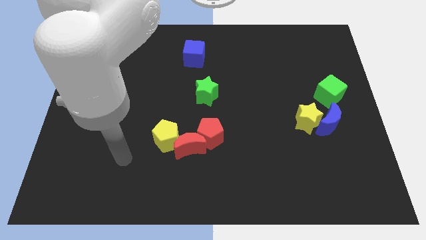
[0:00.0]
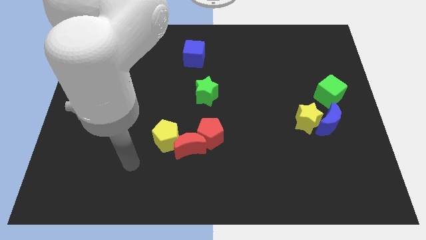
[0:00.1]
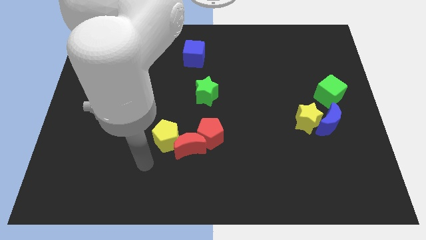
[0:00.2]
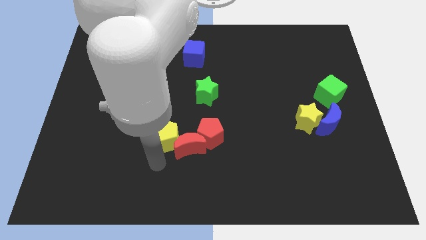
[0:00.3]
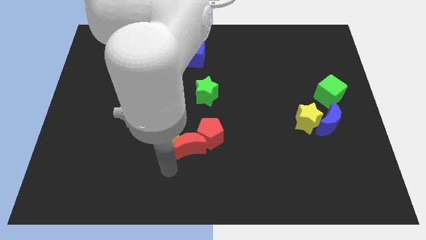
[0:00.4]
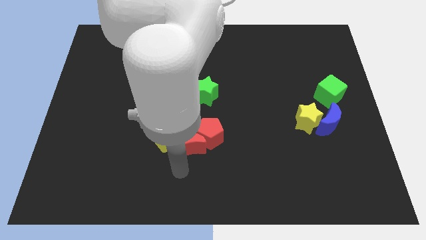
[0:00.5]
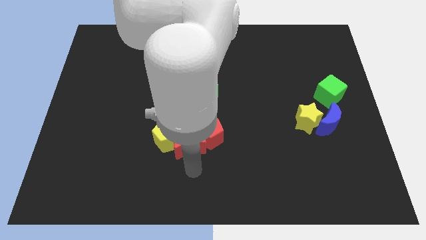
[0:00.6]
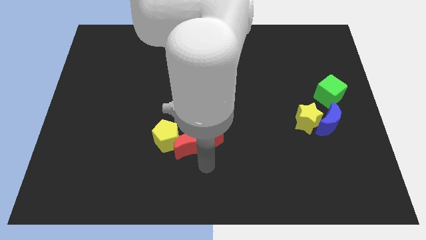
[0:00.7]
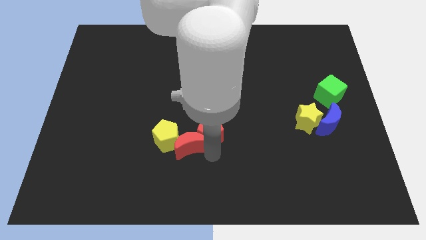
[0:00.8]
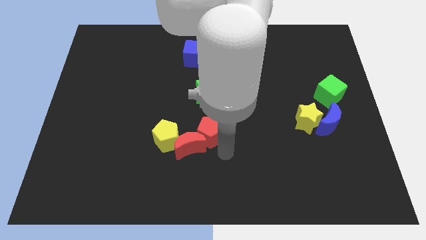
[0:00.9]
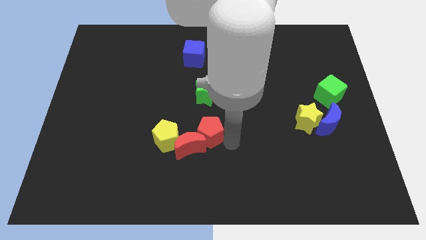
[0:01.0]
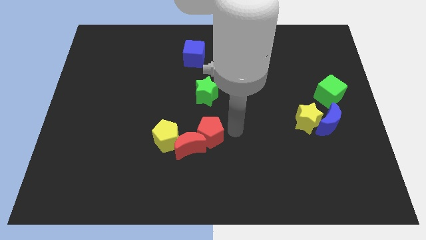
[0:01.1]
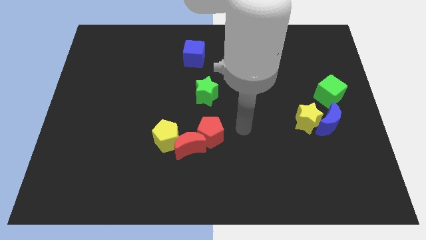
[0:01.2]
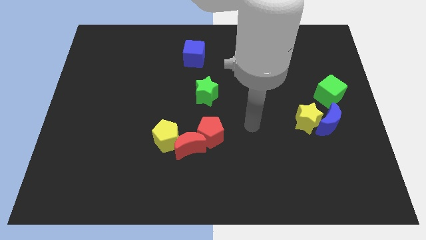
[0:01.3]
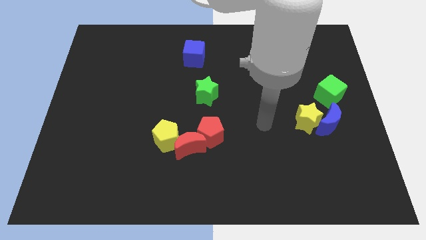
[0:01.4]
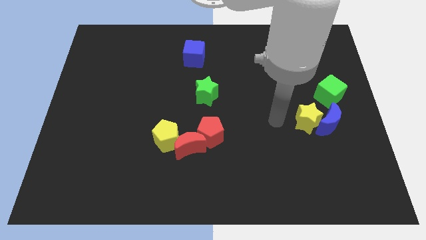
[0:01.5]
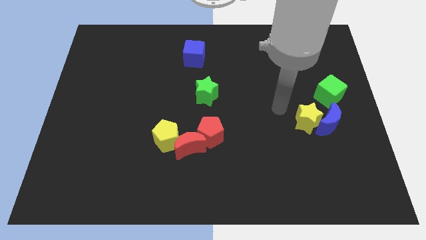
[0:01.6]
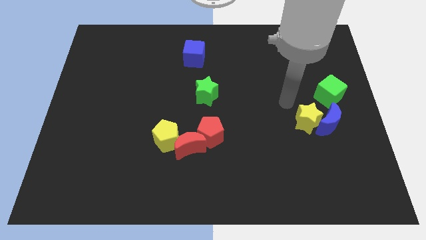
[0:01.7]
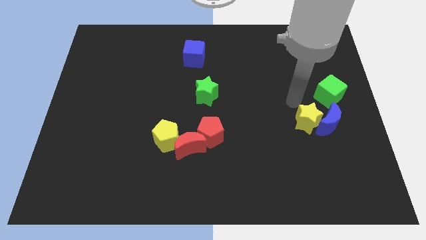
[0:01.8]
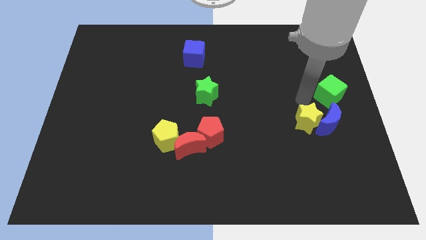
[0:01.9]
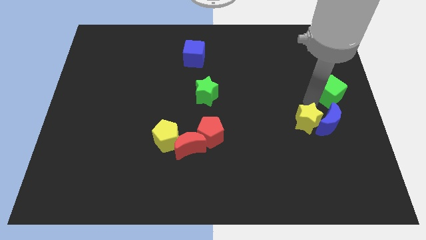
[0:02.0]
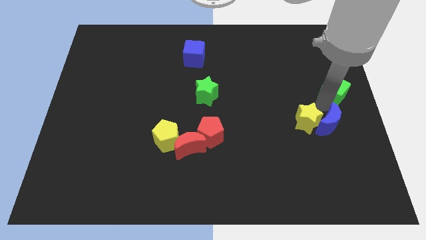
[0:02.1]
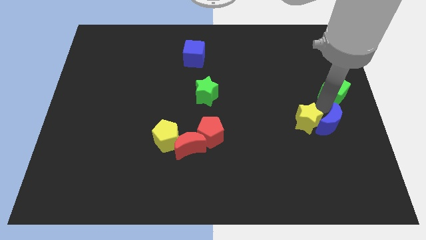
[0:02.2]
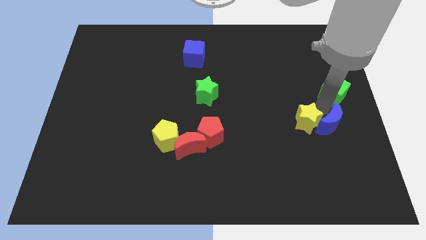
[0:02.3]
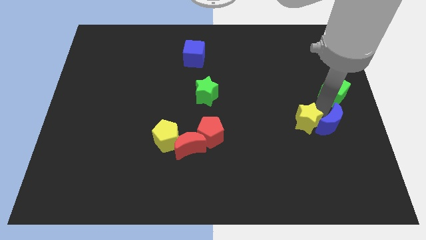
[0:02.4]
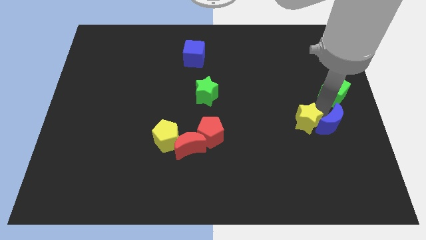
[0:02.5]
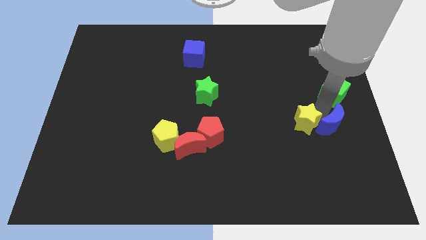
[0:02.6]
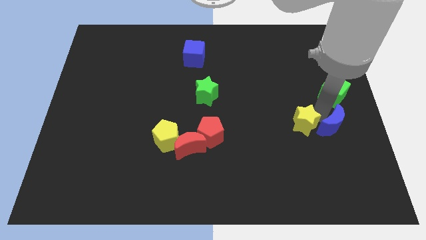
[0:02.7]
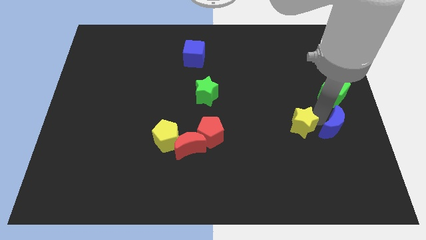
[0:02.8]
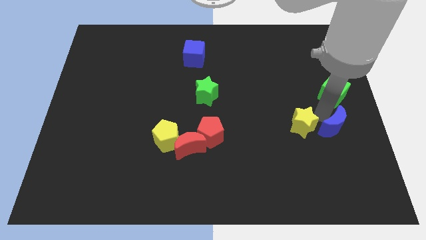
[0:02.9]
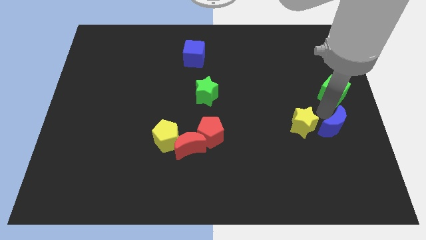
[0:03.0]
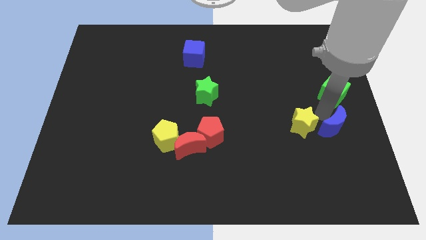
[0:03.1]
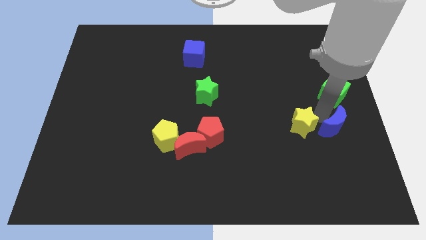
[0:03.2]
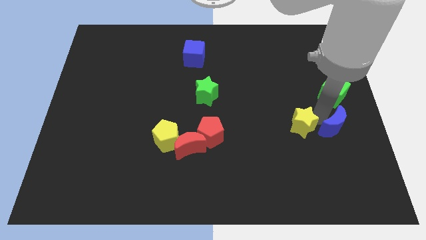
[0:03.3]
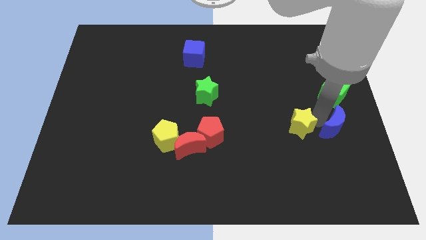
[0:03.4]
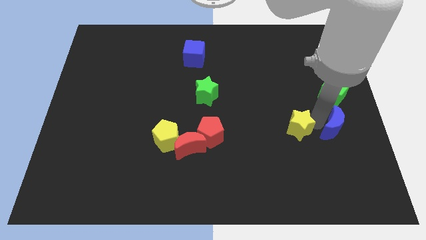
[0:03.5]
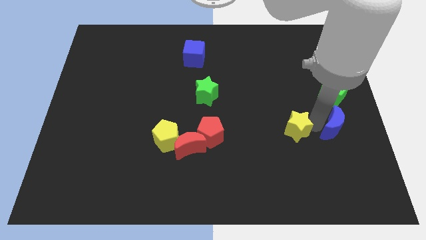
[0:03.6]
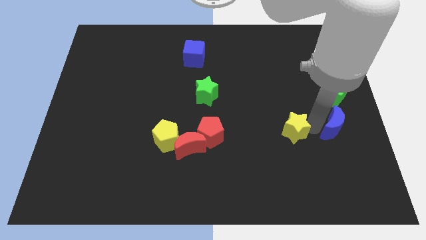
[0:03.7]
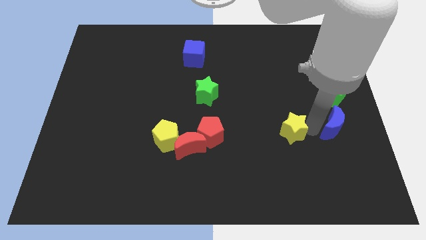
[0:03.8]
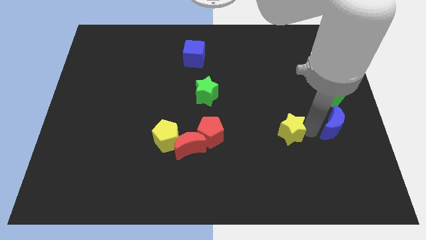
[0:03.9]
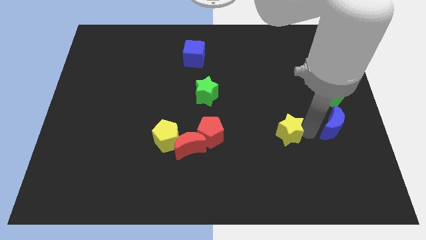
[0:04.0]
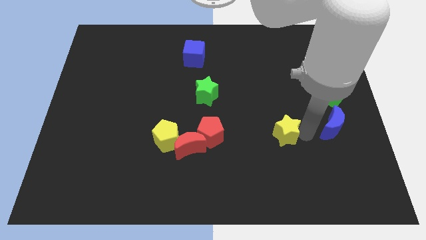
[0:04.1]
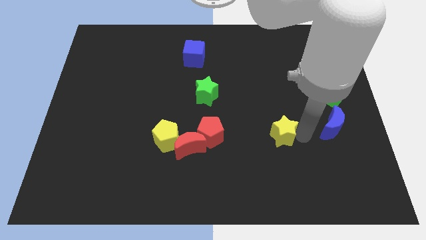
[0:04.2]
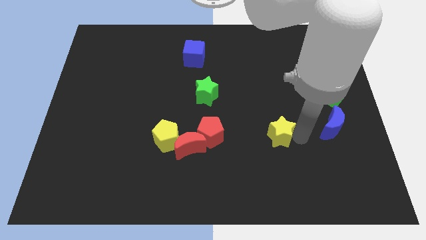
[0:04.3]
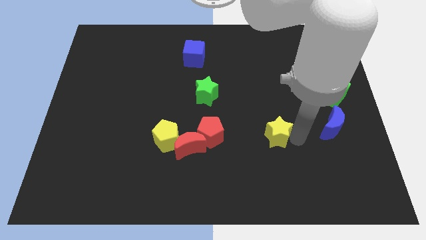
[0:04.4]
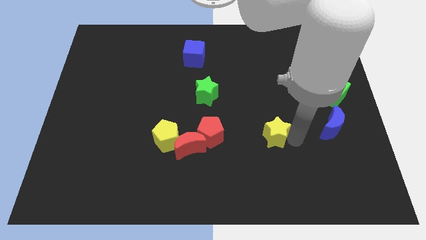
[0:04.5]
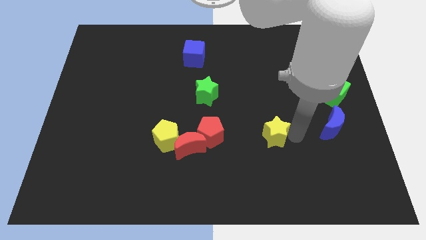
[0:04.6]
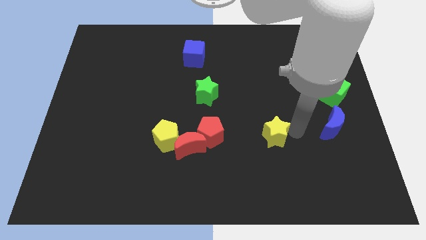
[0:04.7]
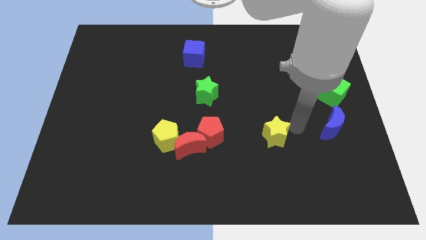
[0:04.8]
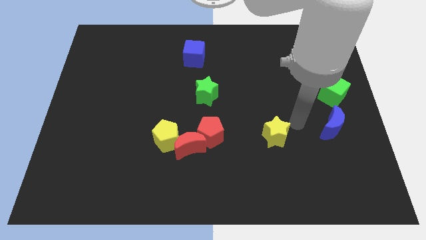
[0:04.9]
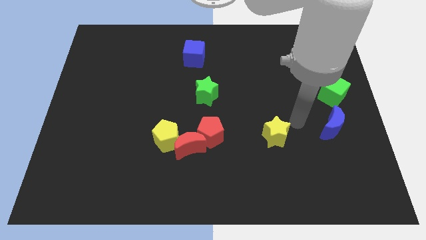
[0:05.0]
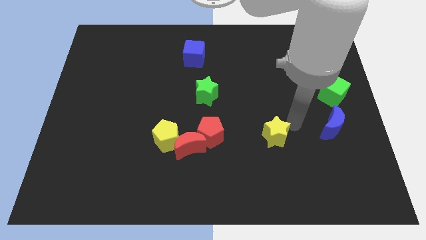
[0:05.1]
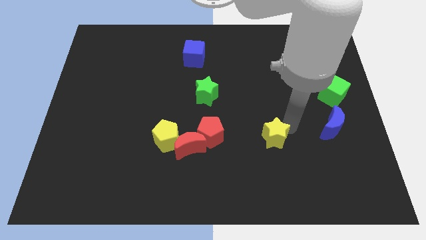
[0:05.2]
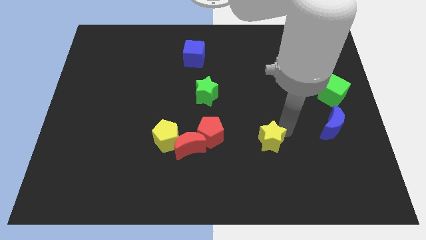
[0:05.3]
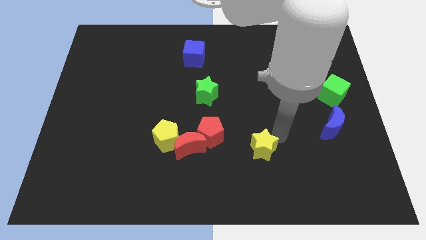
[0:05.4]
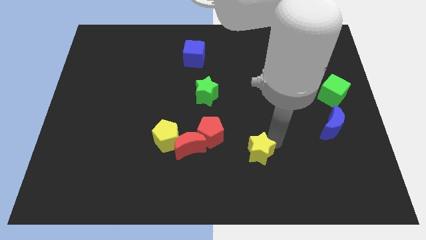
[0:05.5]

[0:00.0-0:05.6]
put the yellow star diagonally down and to the right of the red pentagon

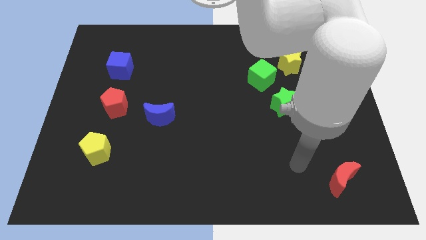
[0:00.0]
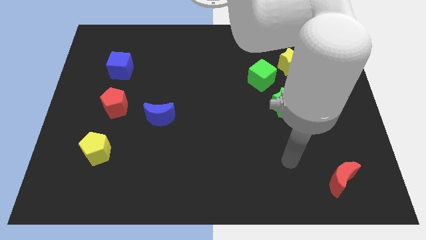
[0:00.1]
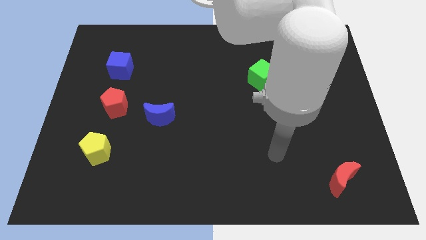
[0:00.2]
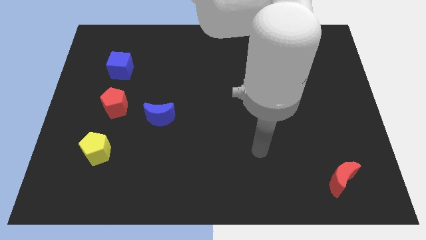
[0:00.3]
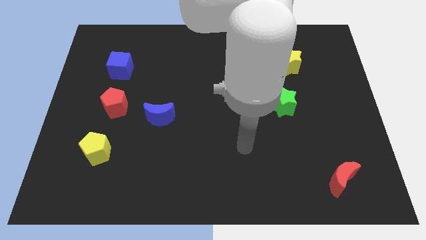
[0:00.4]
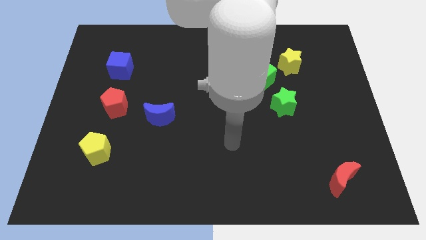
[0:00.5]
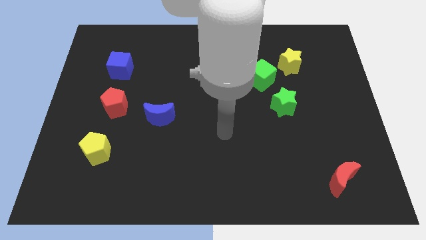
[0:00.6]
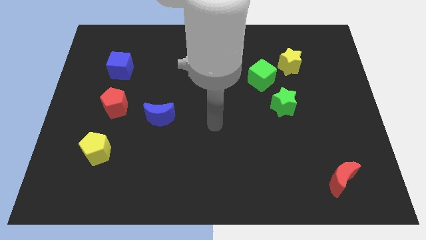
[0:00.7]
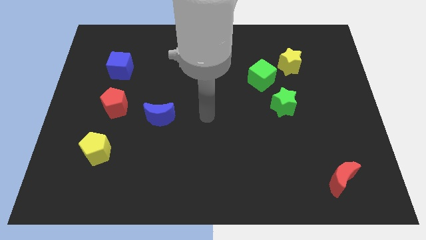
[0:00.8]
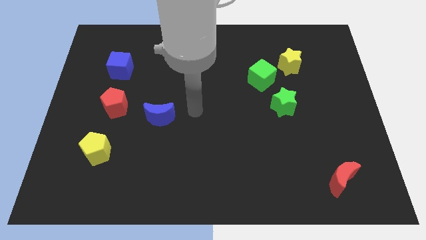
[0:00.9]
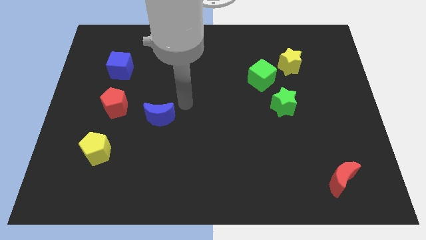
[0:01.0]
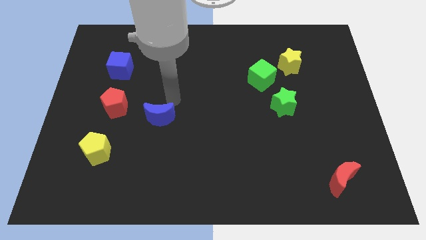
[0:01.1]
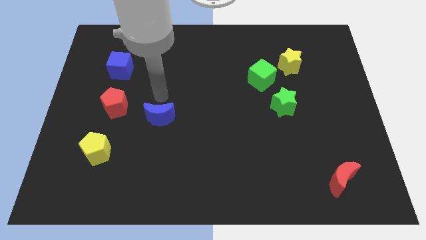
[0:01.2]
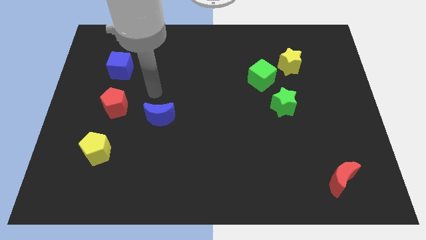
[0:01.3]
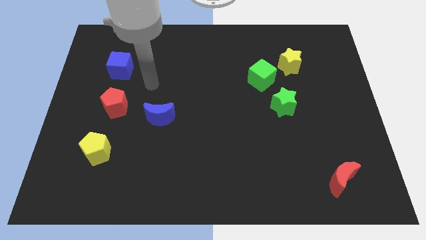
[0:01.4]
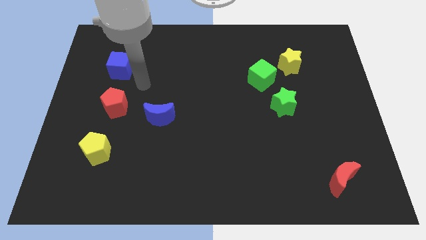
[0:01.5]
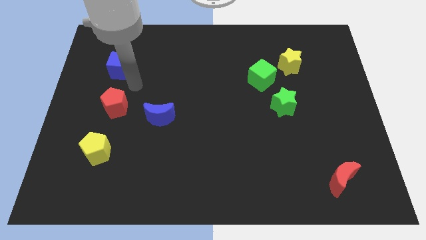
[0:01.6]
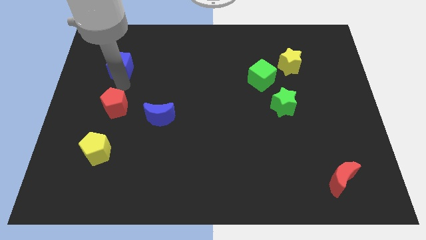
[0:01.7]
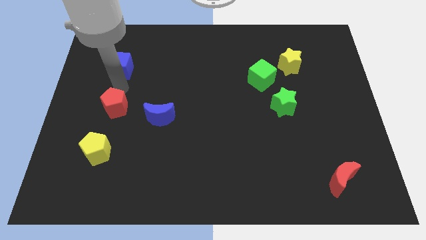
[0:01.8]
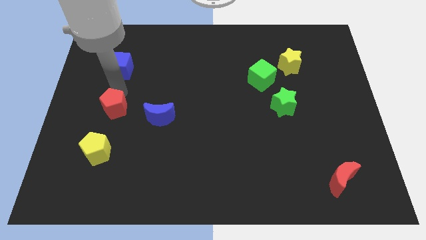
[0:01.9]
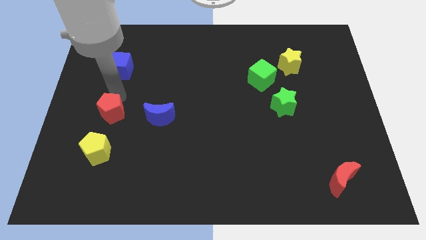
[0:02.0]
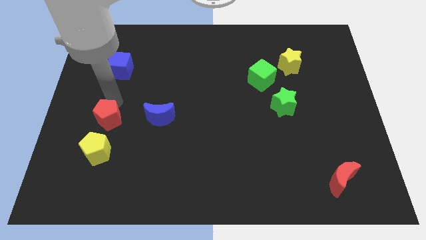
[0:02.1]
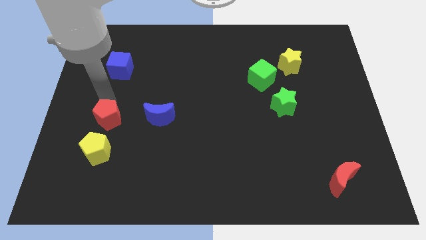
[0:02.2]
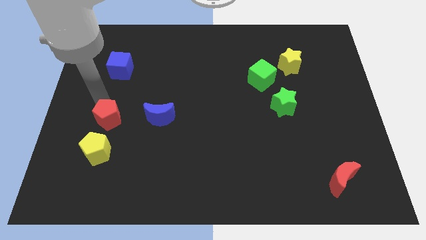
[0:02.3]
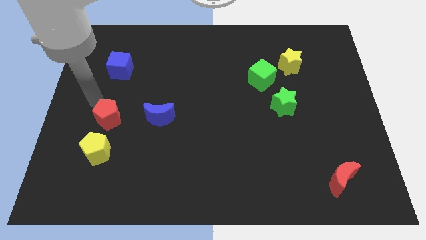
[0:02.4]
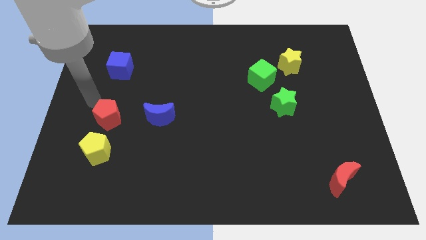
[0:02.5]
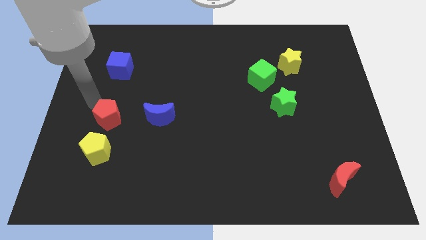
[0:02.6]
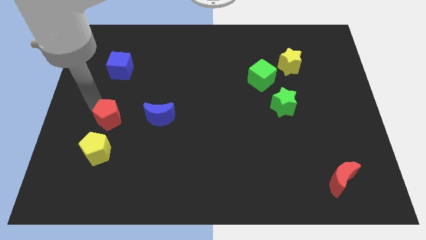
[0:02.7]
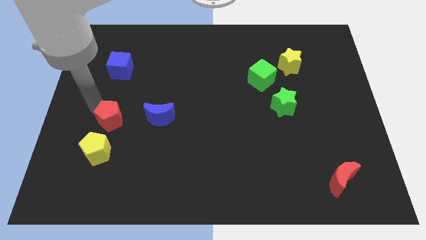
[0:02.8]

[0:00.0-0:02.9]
push the red pentagon to the top right side of the yellow pentagon
